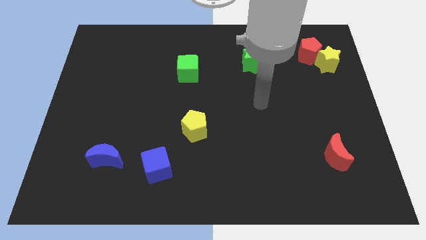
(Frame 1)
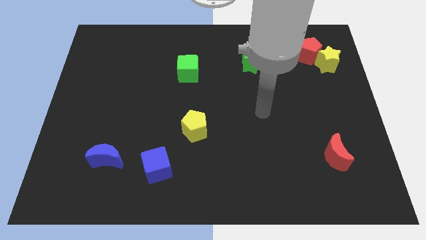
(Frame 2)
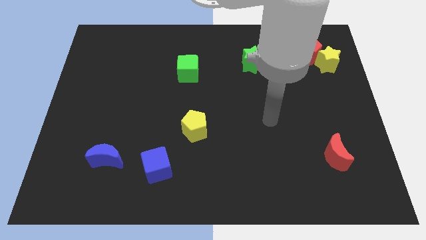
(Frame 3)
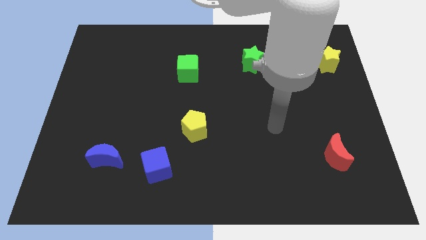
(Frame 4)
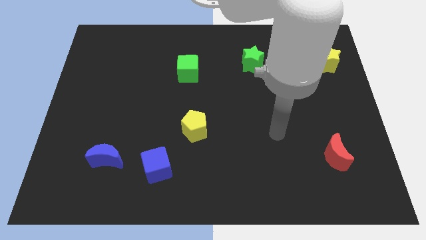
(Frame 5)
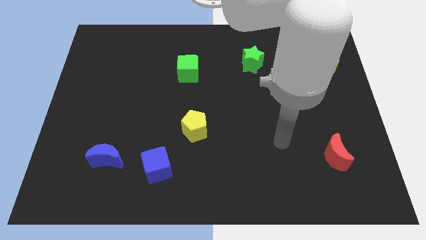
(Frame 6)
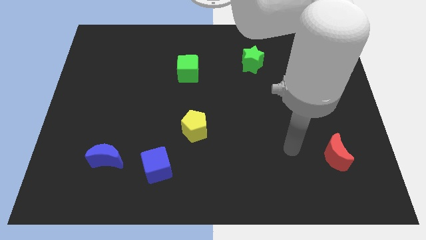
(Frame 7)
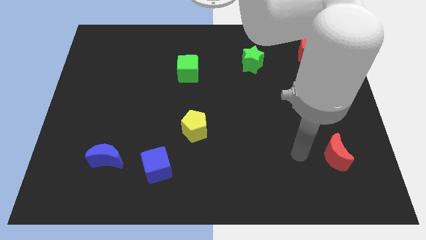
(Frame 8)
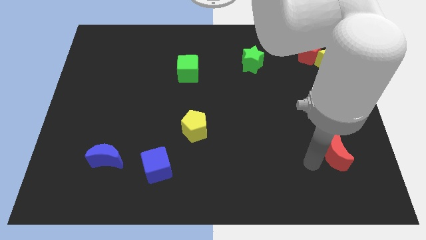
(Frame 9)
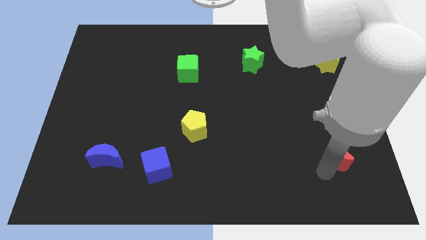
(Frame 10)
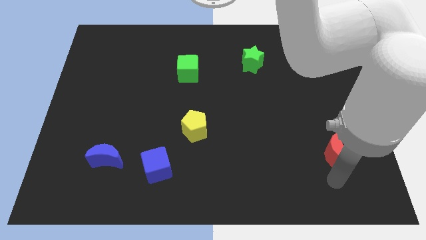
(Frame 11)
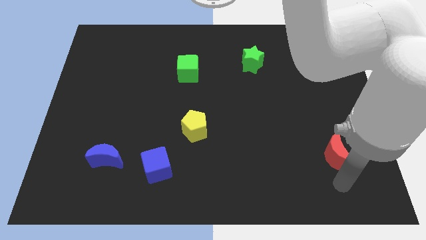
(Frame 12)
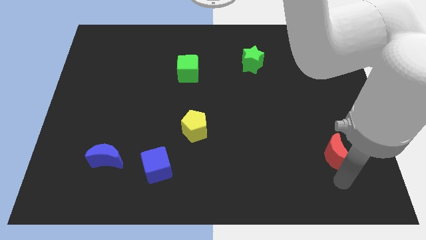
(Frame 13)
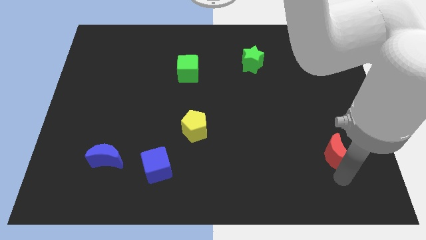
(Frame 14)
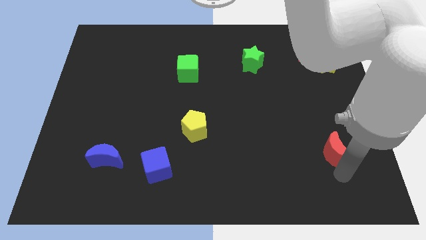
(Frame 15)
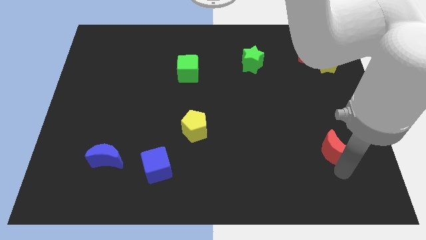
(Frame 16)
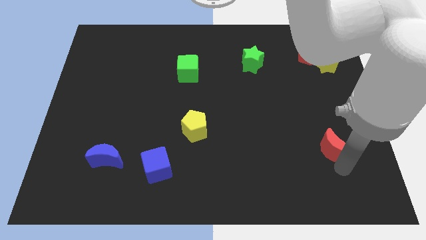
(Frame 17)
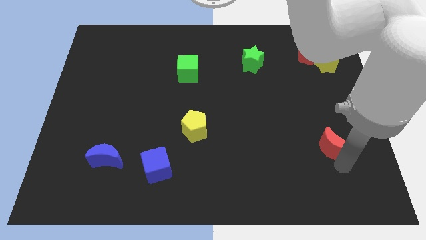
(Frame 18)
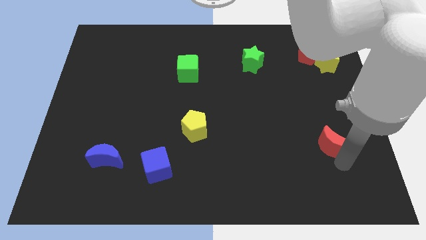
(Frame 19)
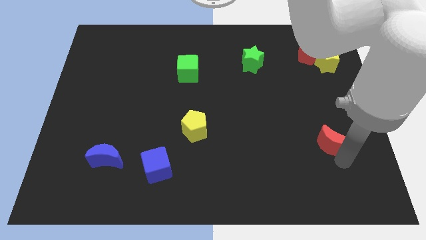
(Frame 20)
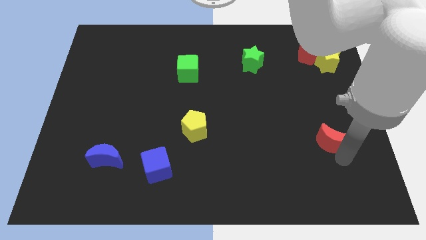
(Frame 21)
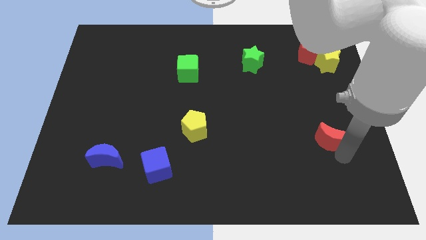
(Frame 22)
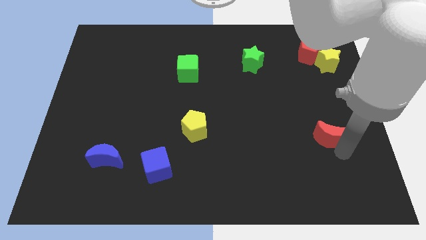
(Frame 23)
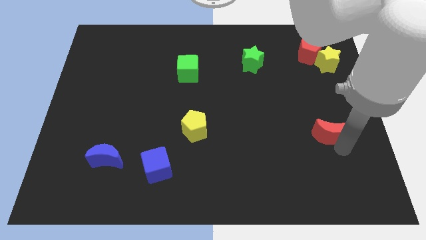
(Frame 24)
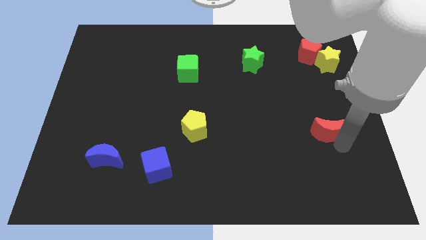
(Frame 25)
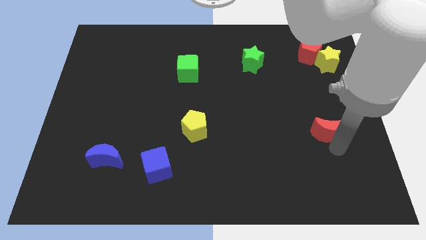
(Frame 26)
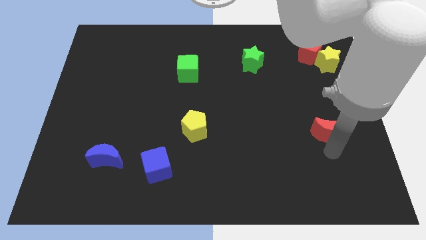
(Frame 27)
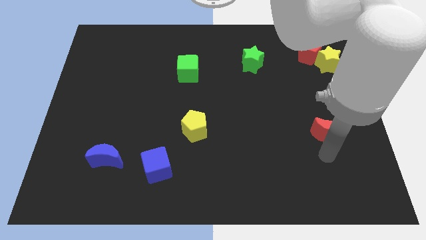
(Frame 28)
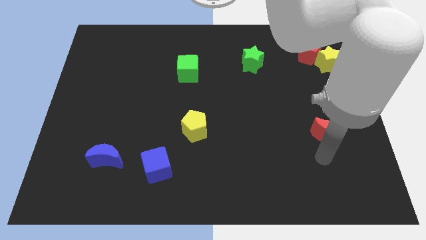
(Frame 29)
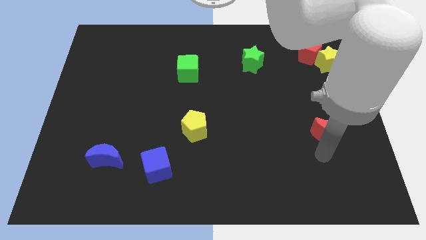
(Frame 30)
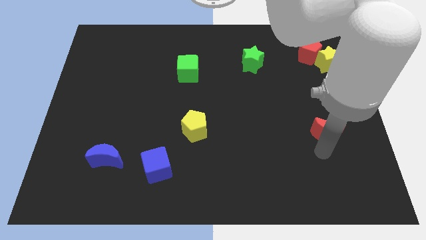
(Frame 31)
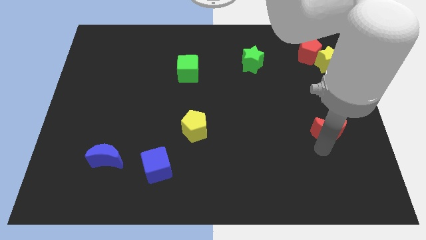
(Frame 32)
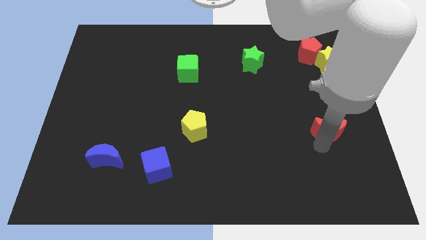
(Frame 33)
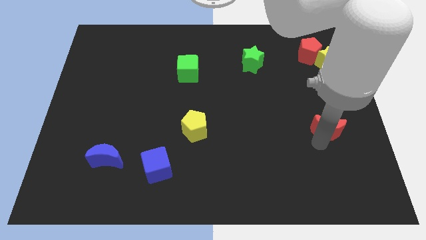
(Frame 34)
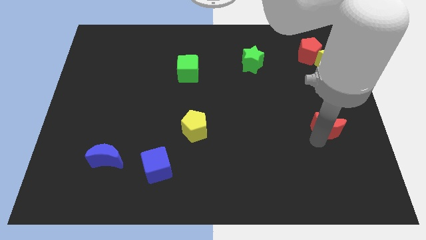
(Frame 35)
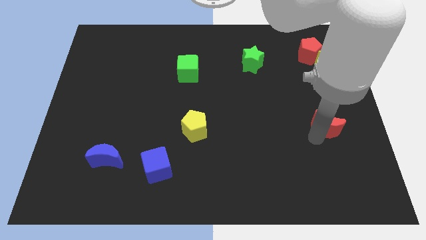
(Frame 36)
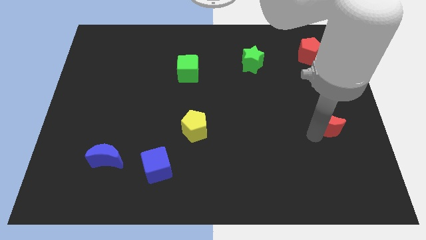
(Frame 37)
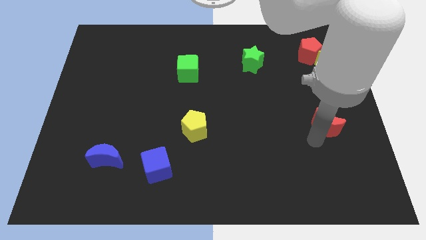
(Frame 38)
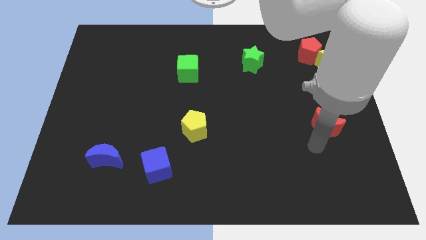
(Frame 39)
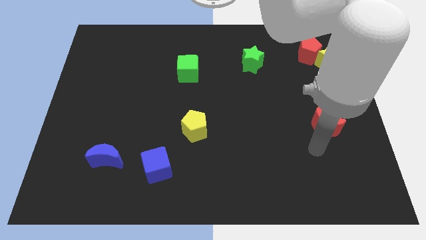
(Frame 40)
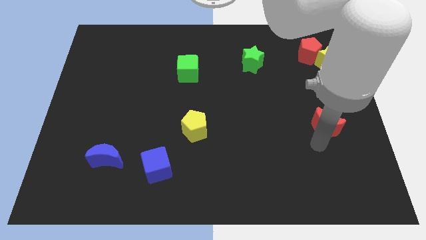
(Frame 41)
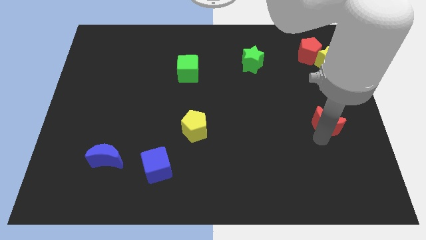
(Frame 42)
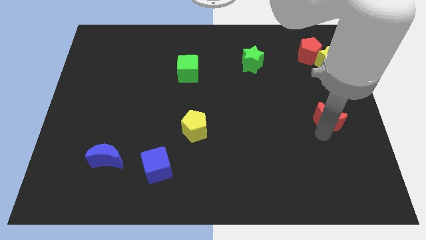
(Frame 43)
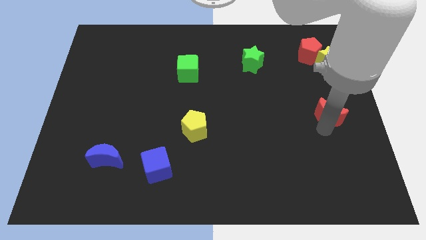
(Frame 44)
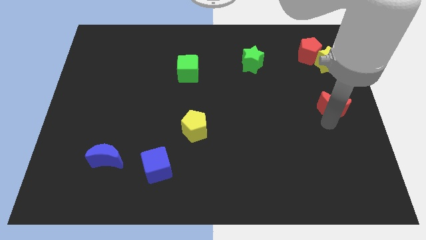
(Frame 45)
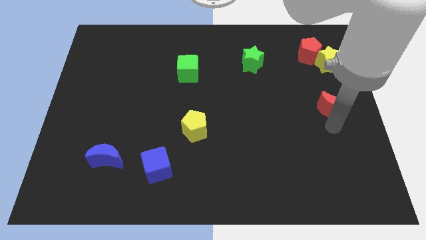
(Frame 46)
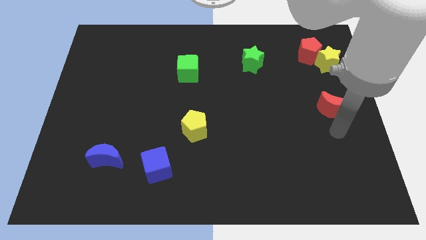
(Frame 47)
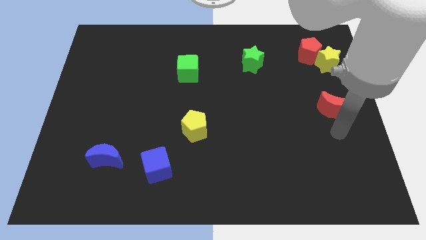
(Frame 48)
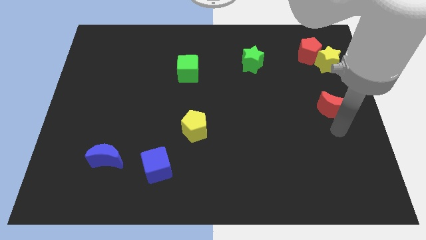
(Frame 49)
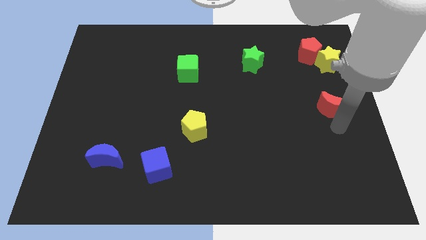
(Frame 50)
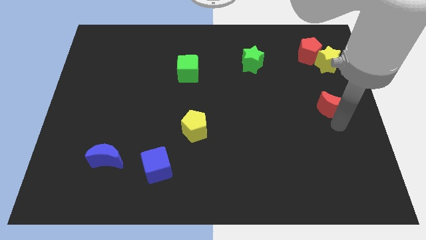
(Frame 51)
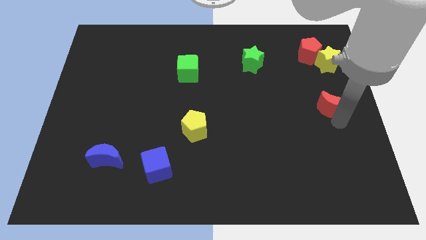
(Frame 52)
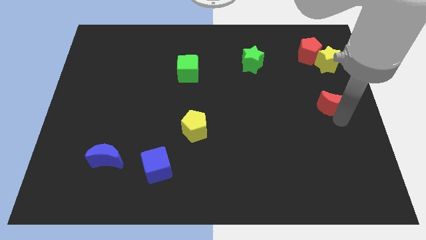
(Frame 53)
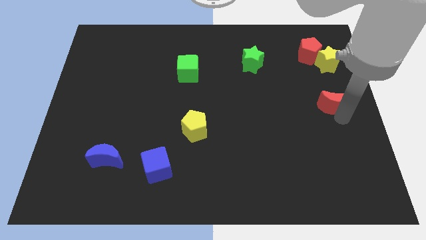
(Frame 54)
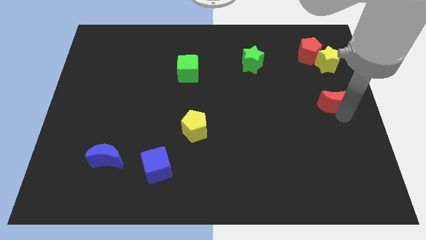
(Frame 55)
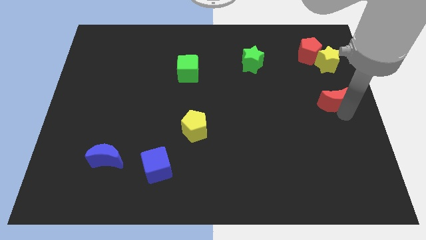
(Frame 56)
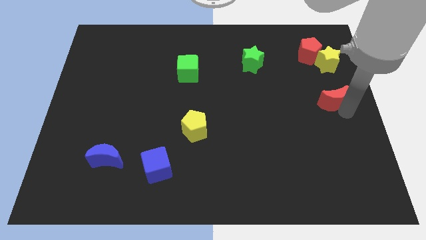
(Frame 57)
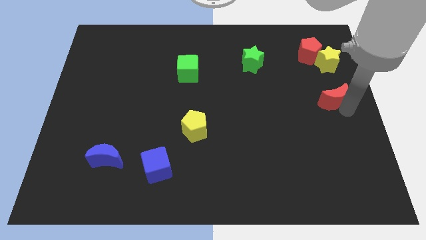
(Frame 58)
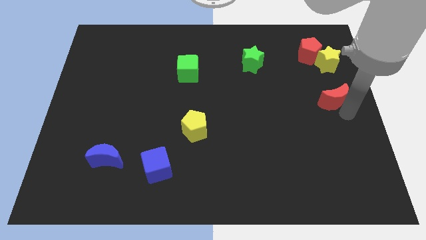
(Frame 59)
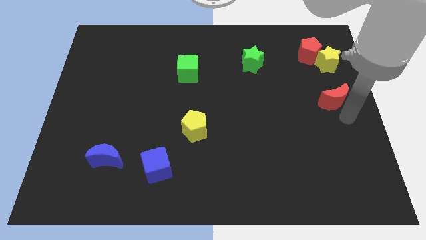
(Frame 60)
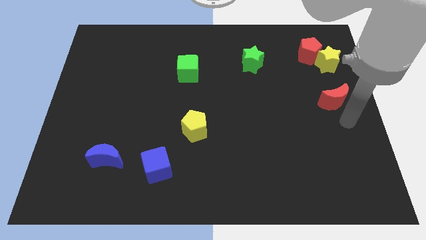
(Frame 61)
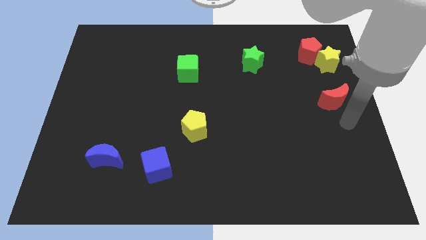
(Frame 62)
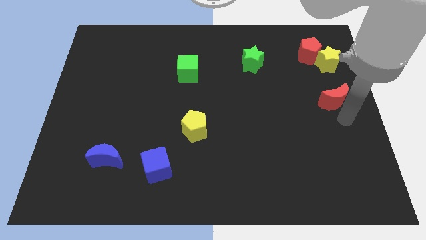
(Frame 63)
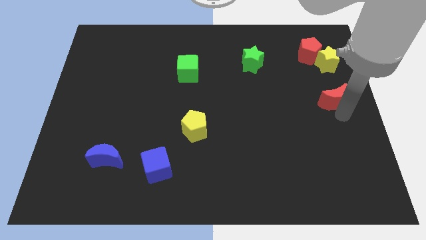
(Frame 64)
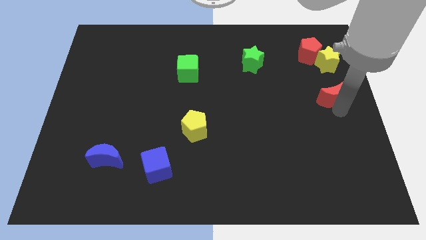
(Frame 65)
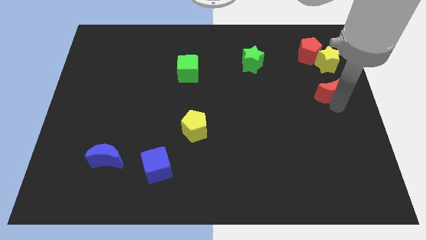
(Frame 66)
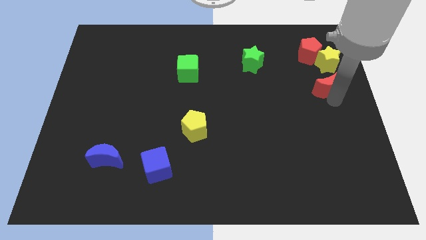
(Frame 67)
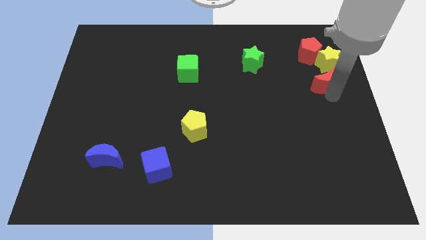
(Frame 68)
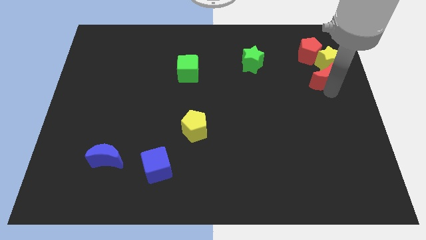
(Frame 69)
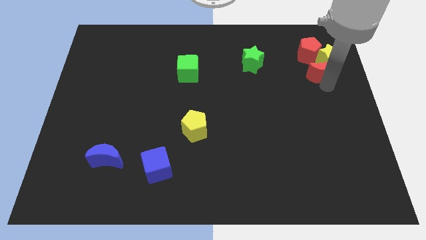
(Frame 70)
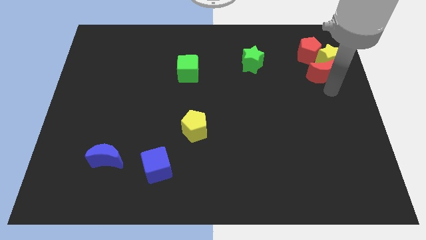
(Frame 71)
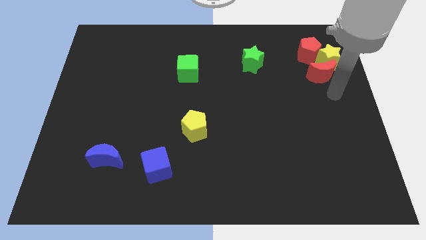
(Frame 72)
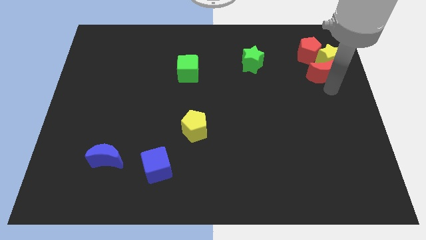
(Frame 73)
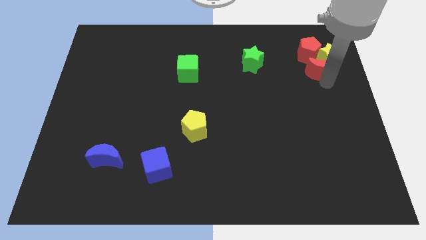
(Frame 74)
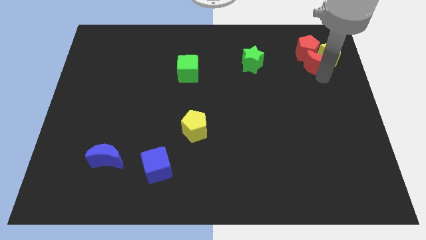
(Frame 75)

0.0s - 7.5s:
put the red moon next to the red pentagon

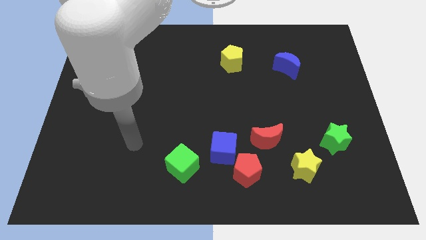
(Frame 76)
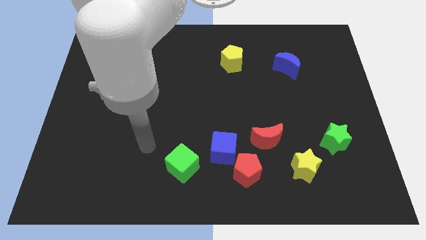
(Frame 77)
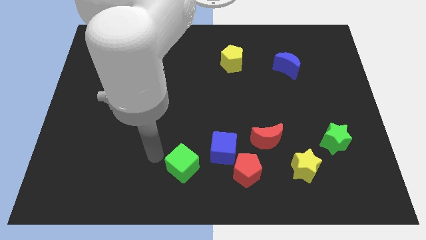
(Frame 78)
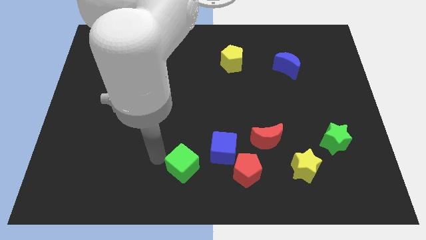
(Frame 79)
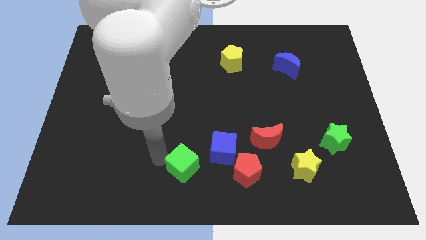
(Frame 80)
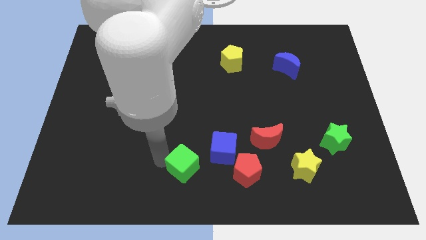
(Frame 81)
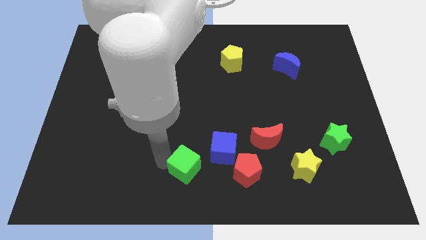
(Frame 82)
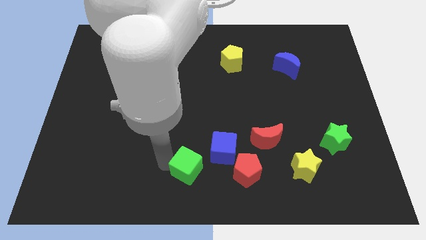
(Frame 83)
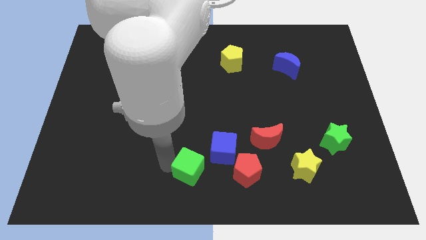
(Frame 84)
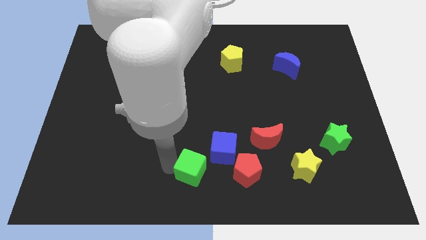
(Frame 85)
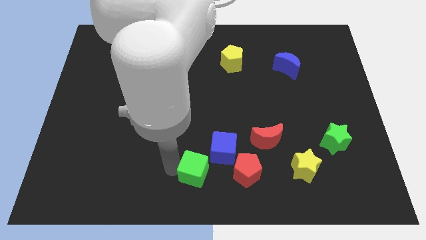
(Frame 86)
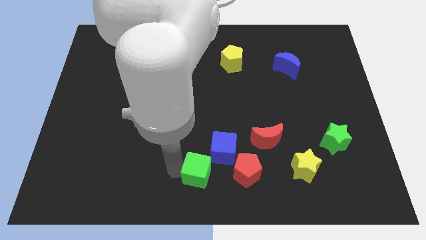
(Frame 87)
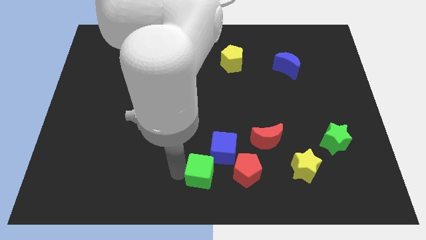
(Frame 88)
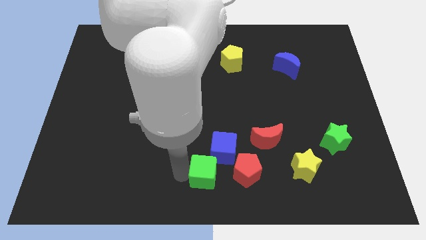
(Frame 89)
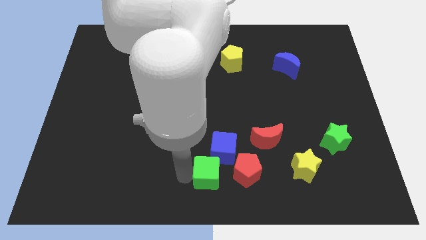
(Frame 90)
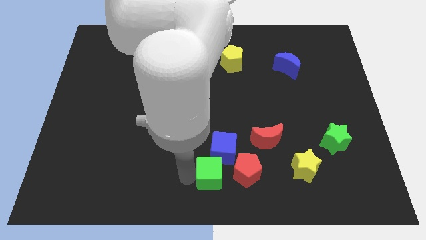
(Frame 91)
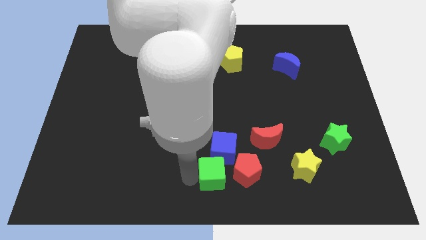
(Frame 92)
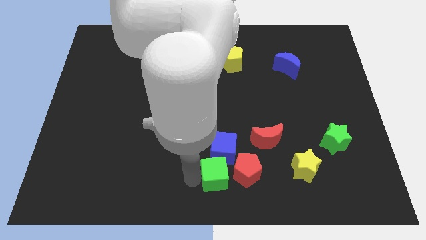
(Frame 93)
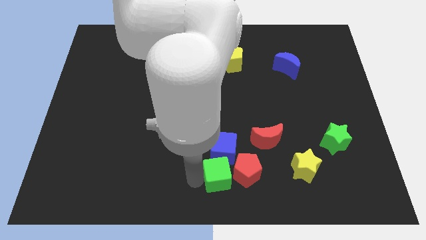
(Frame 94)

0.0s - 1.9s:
slide the green cube towards the red pentagon
